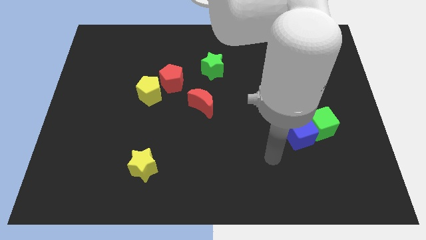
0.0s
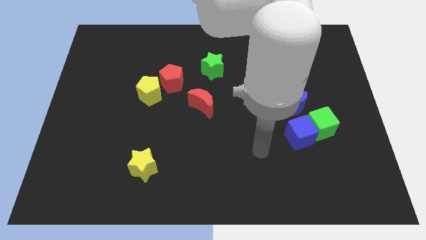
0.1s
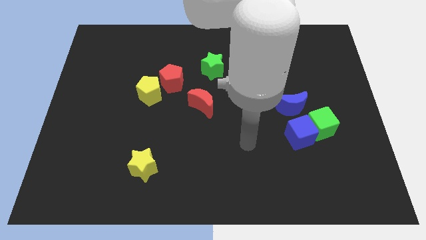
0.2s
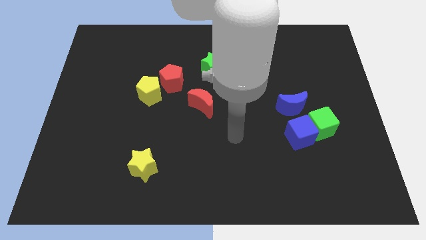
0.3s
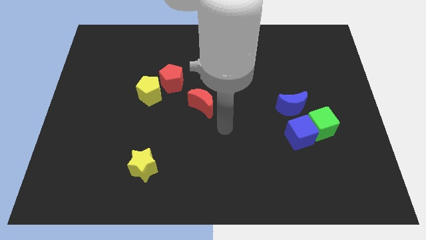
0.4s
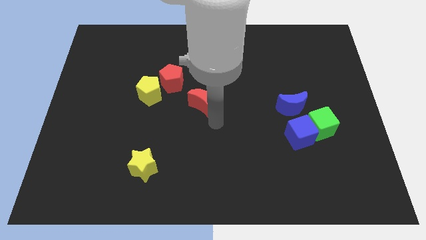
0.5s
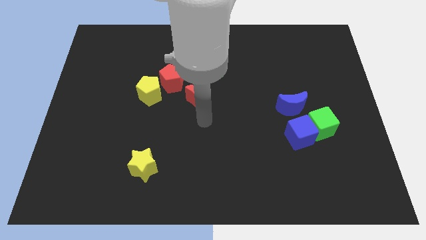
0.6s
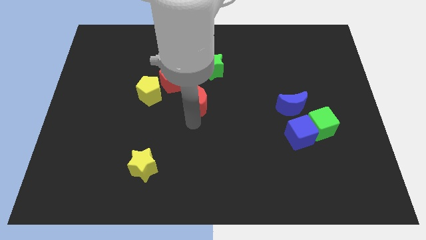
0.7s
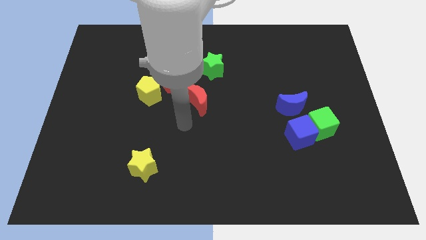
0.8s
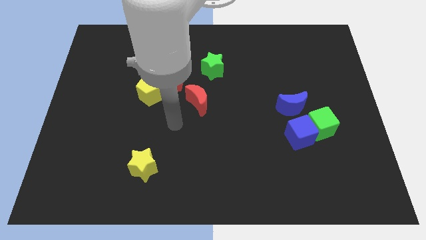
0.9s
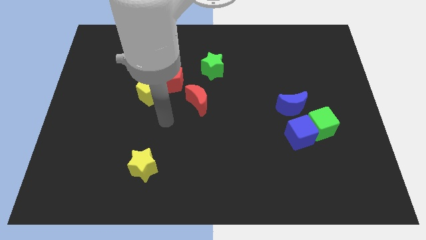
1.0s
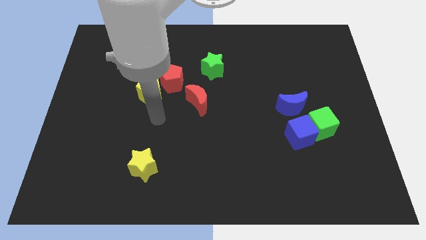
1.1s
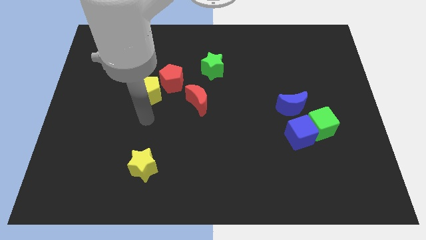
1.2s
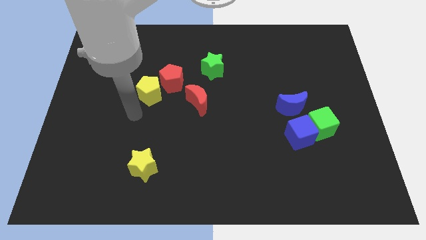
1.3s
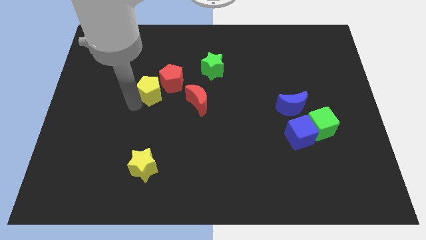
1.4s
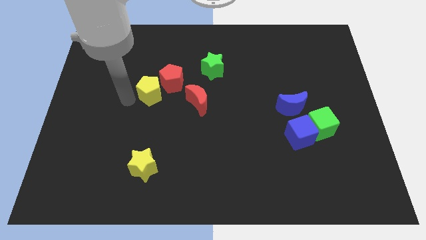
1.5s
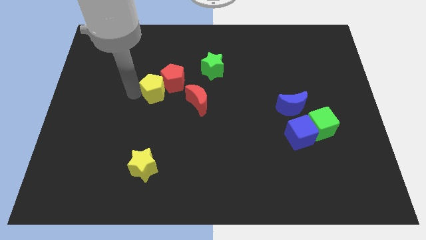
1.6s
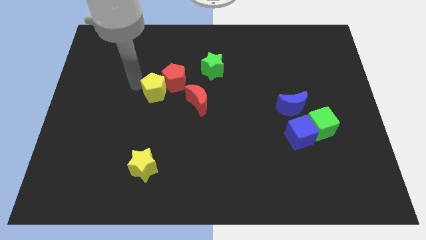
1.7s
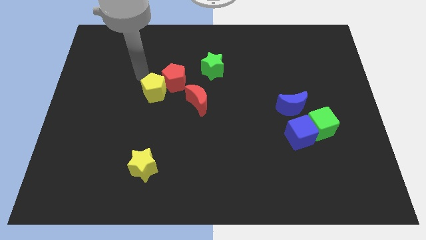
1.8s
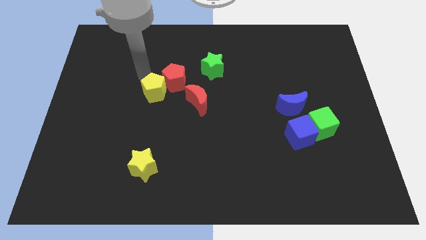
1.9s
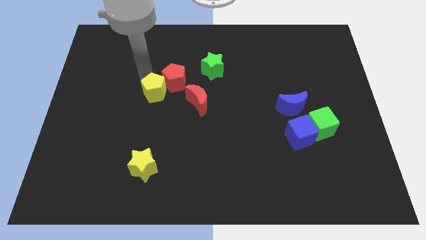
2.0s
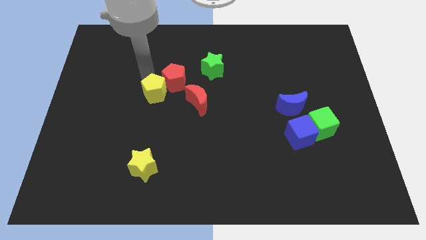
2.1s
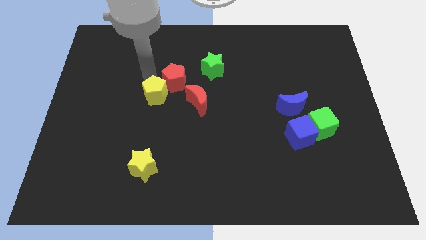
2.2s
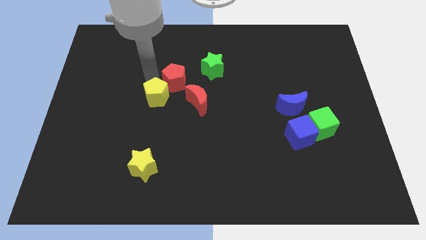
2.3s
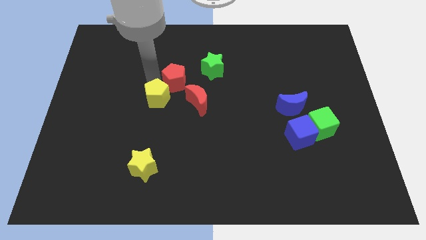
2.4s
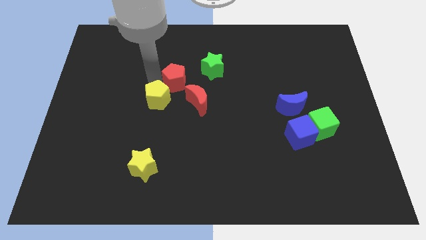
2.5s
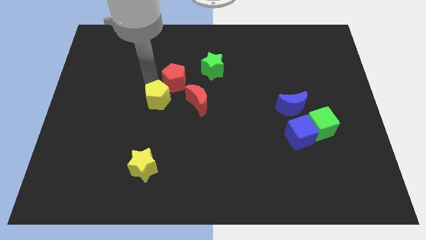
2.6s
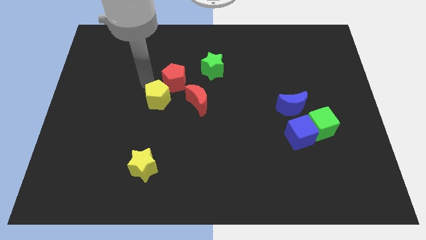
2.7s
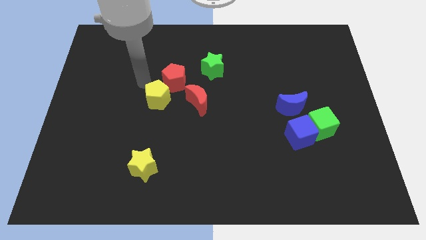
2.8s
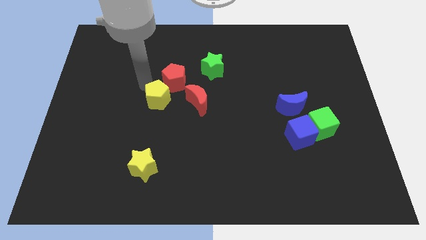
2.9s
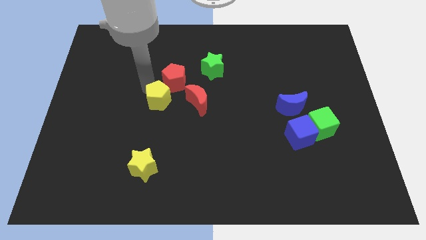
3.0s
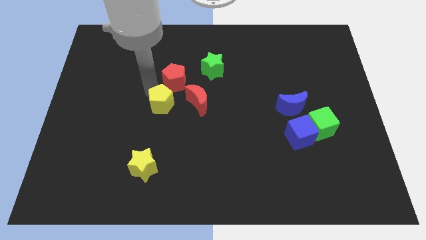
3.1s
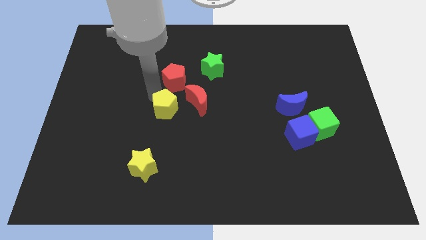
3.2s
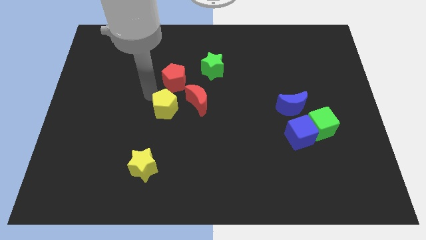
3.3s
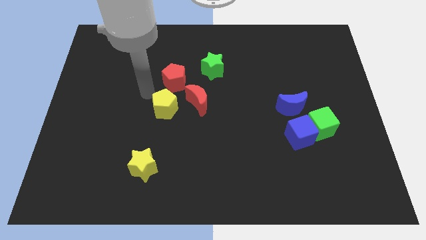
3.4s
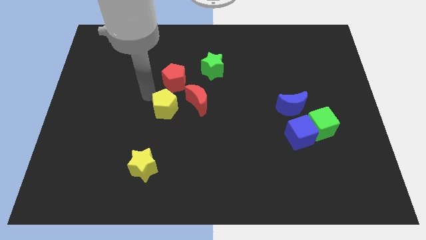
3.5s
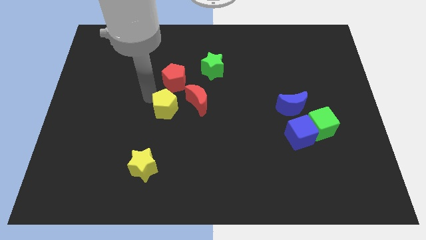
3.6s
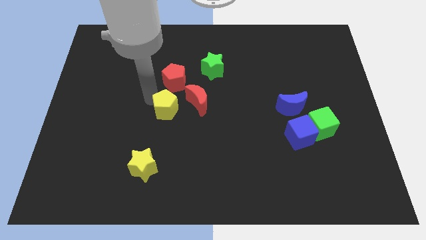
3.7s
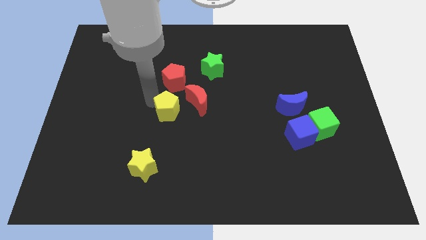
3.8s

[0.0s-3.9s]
slide the yellow pentagon downwards and to the right diagonally slightly

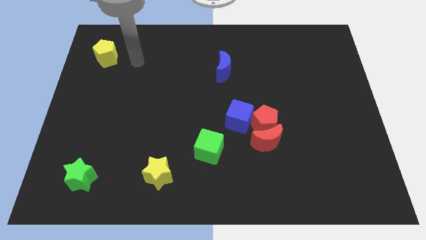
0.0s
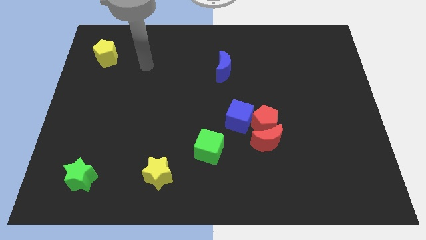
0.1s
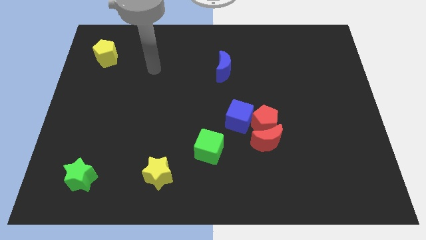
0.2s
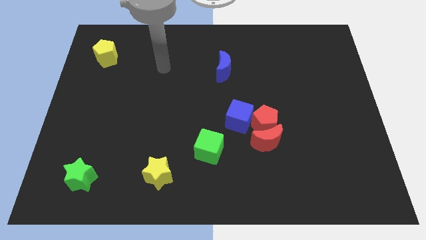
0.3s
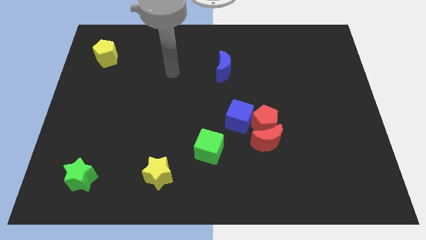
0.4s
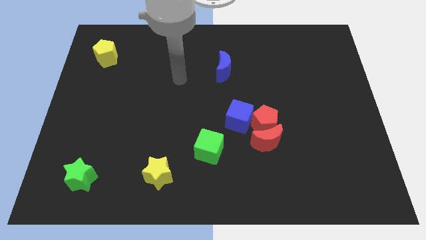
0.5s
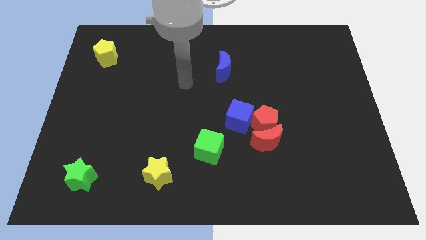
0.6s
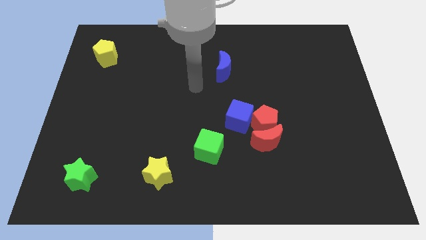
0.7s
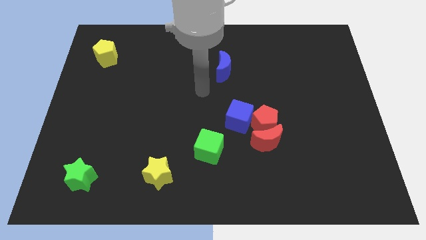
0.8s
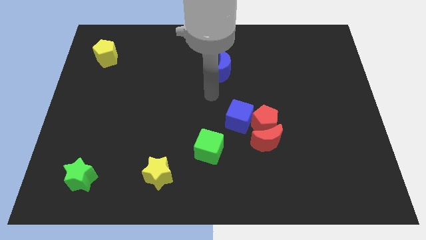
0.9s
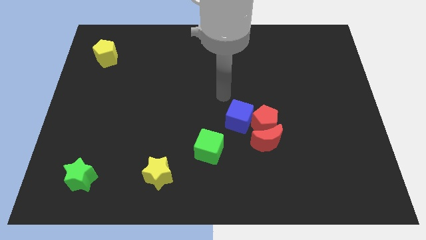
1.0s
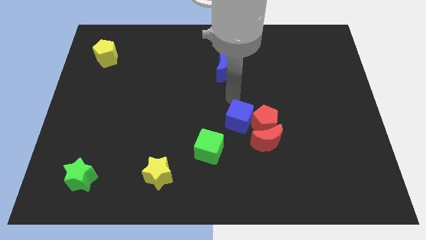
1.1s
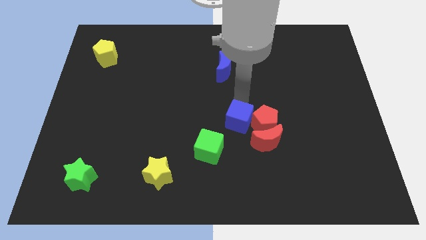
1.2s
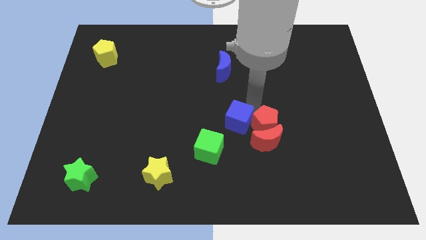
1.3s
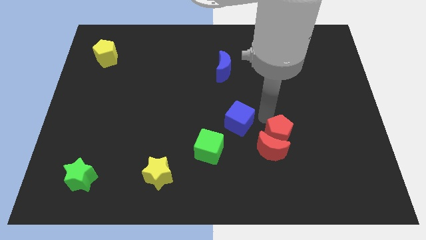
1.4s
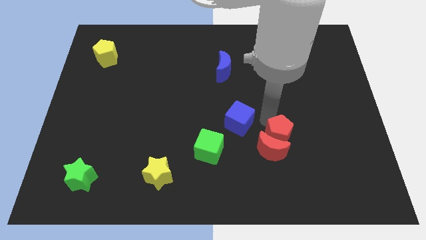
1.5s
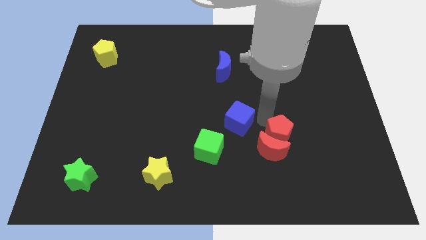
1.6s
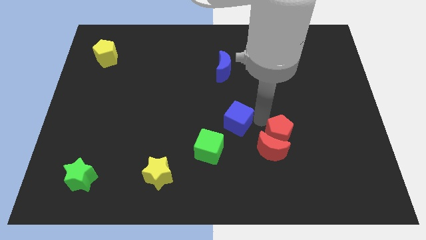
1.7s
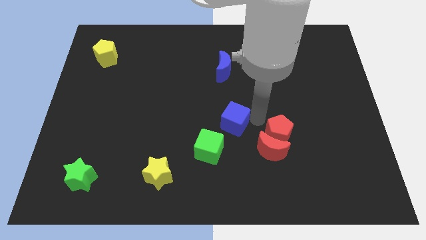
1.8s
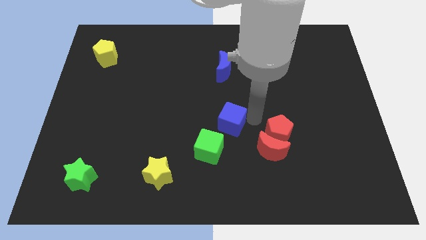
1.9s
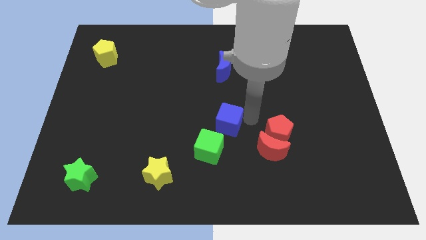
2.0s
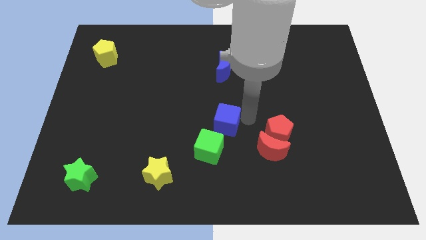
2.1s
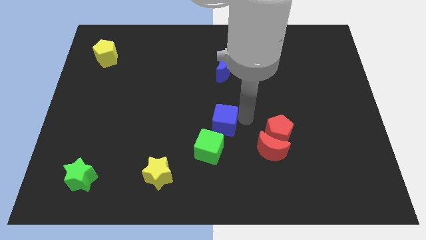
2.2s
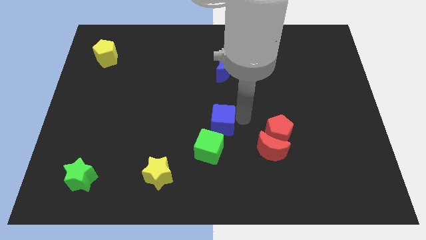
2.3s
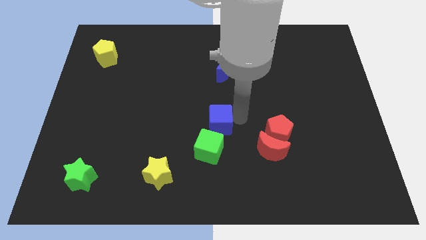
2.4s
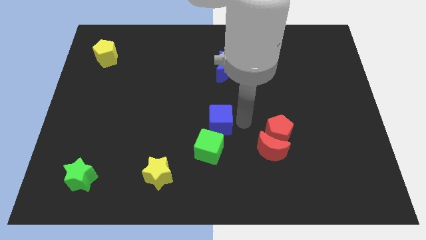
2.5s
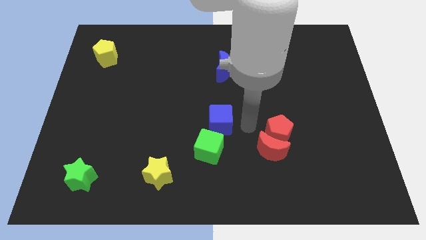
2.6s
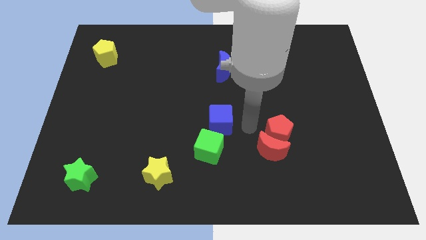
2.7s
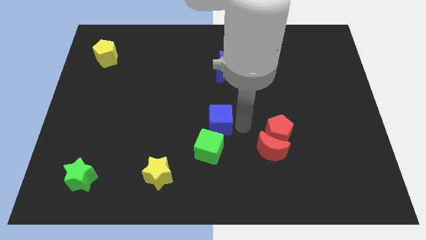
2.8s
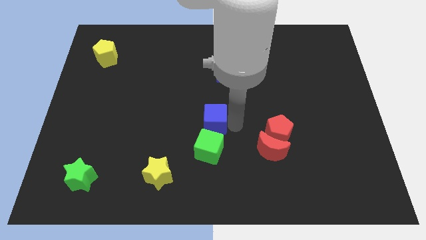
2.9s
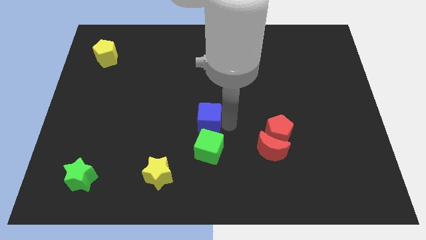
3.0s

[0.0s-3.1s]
slide the blue cube a little bit left

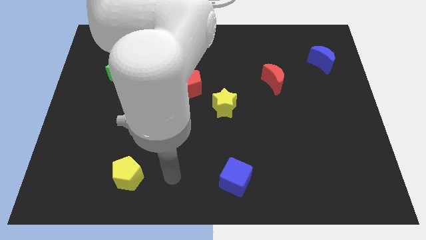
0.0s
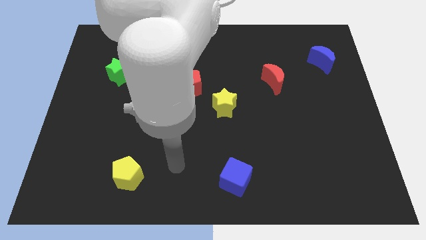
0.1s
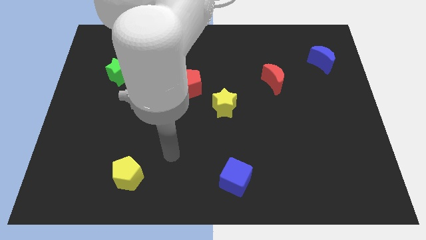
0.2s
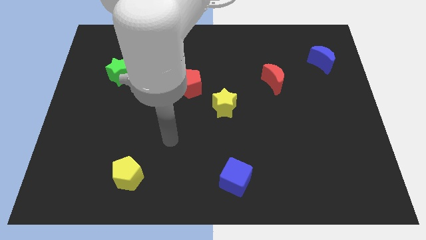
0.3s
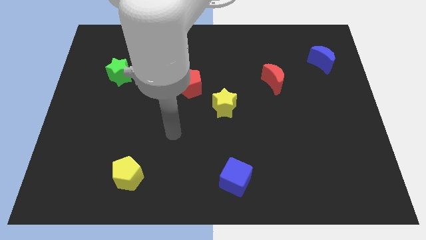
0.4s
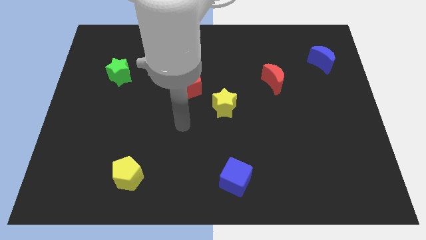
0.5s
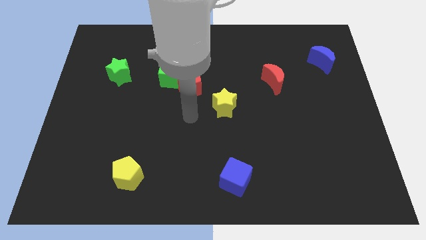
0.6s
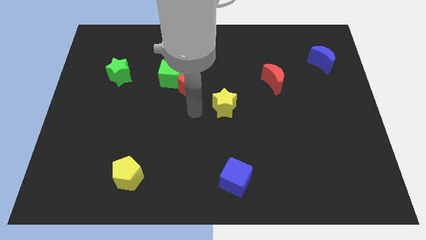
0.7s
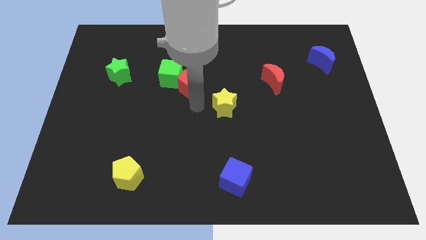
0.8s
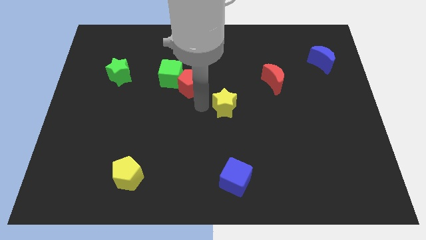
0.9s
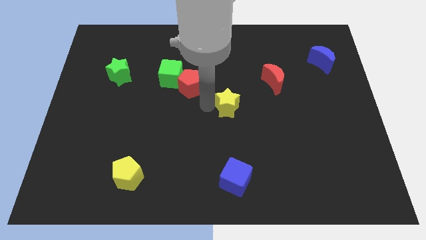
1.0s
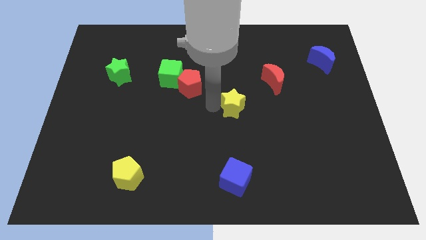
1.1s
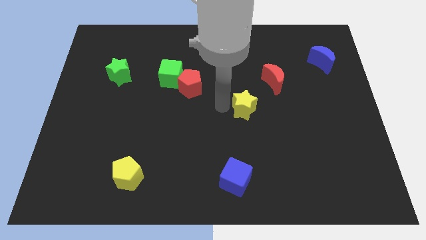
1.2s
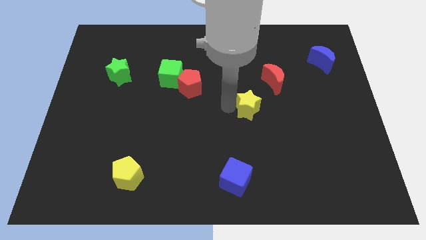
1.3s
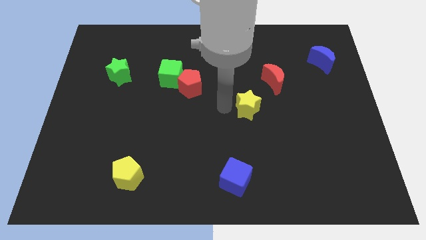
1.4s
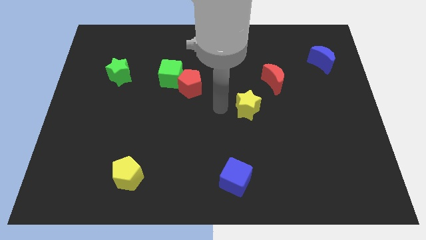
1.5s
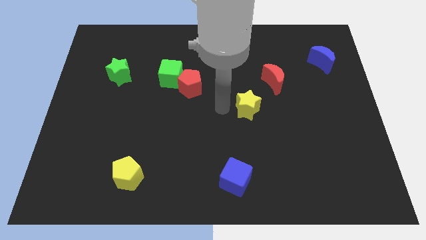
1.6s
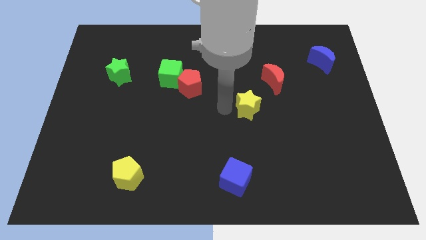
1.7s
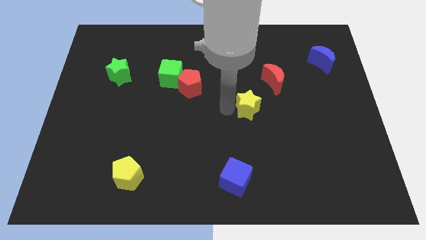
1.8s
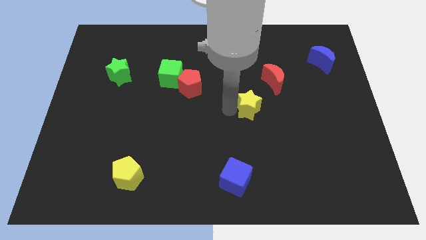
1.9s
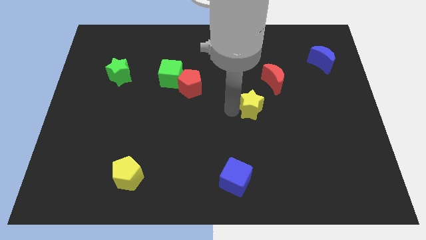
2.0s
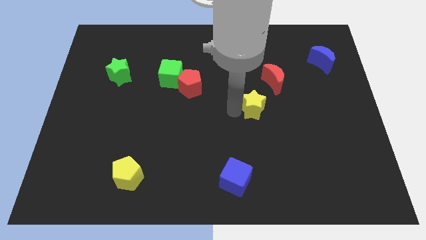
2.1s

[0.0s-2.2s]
push the yellow star right a little
